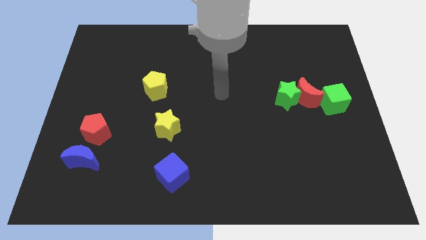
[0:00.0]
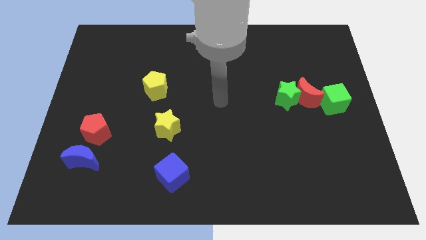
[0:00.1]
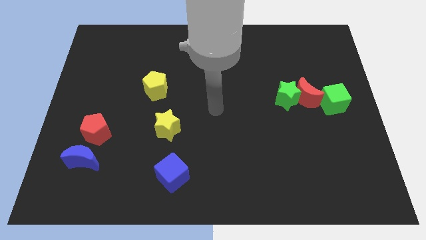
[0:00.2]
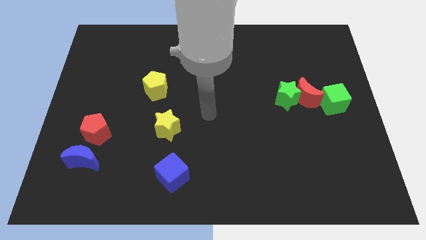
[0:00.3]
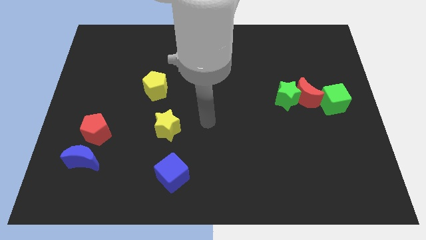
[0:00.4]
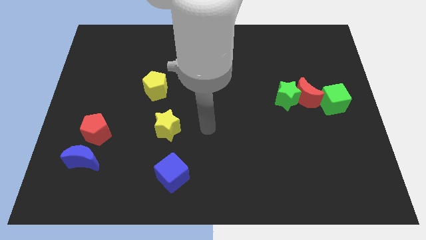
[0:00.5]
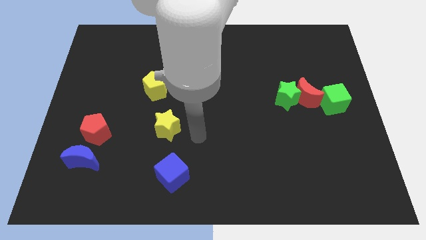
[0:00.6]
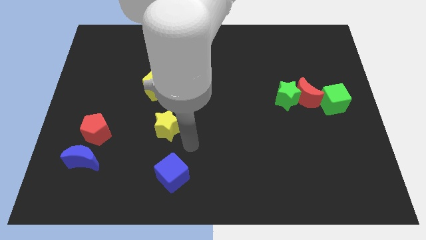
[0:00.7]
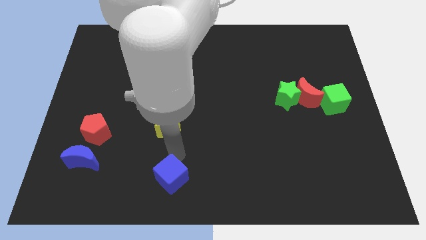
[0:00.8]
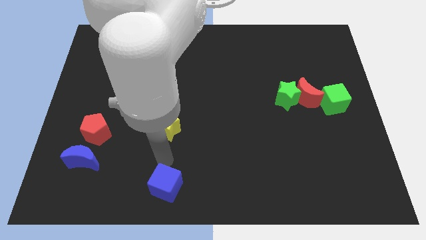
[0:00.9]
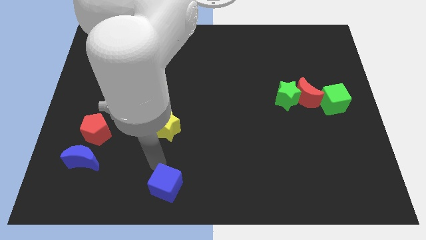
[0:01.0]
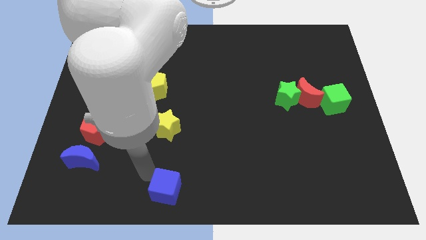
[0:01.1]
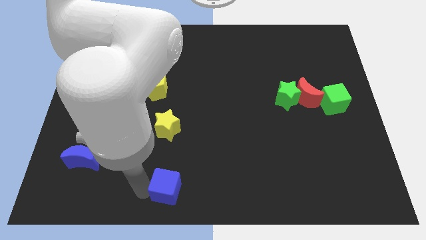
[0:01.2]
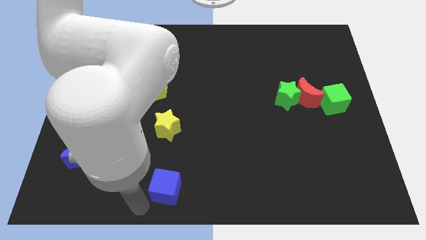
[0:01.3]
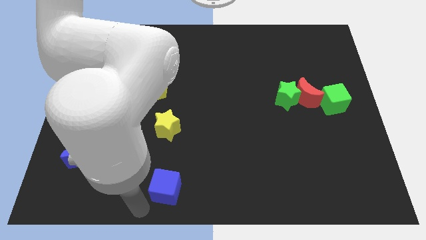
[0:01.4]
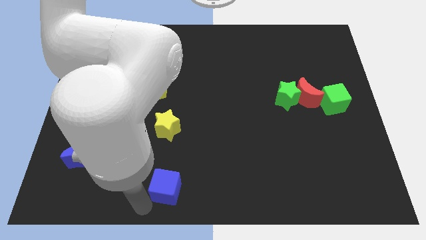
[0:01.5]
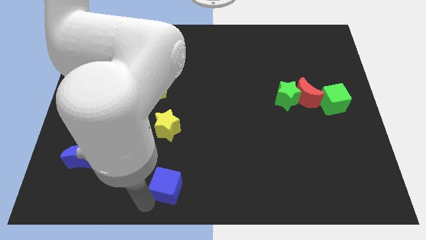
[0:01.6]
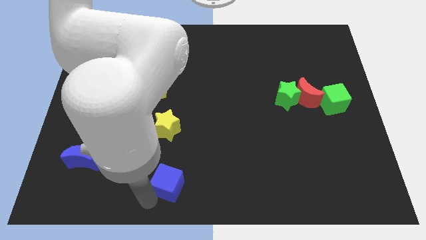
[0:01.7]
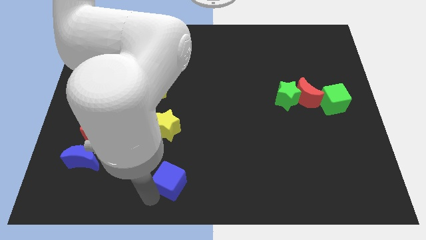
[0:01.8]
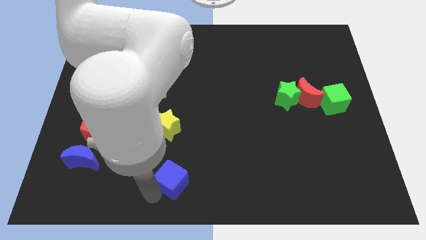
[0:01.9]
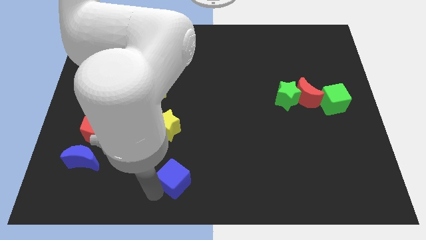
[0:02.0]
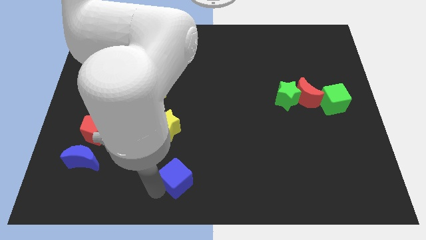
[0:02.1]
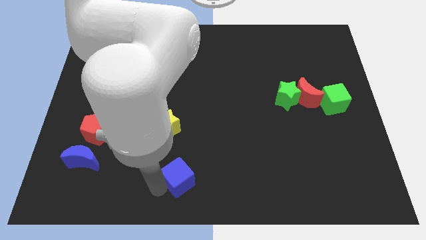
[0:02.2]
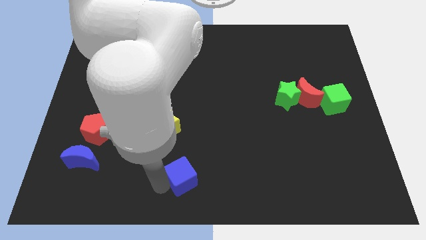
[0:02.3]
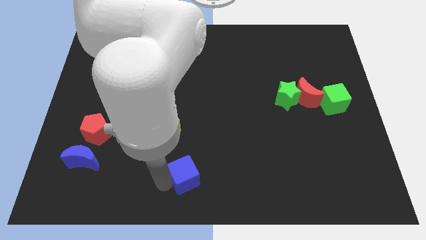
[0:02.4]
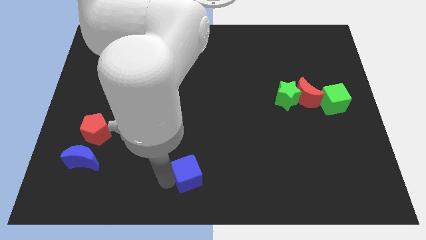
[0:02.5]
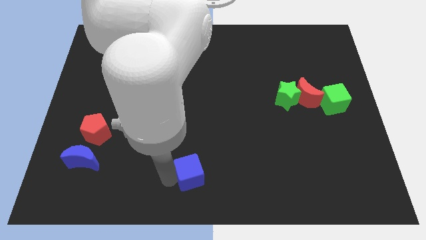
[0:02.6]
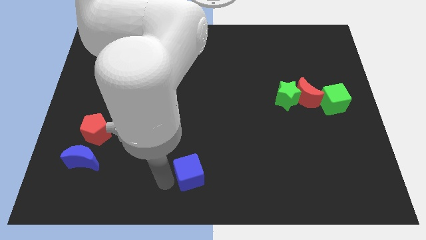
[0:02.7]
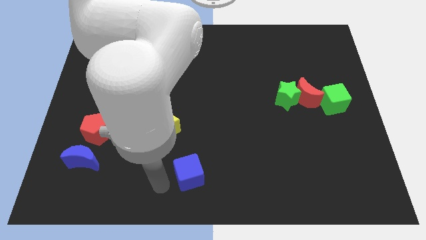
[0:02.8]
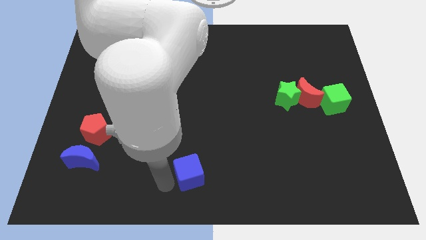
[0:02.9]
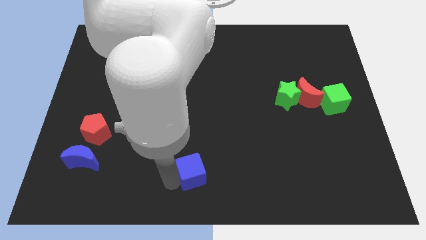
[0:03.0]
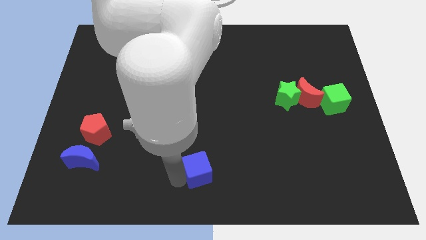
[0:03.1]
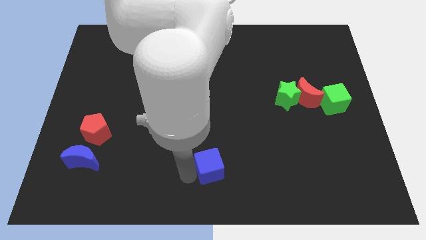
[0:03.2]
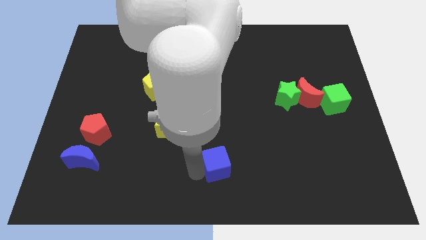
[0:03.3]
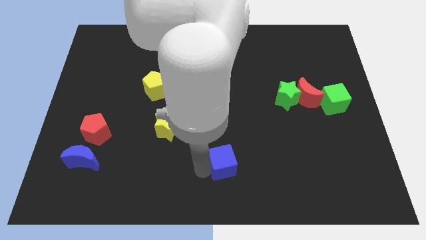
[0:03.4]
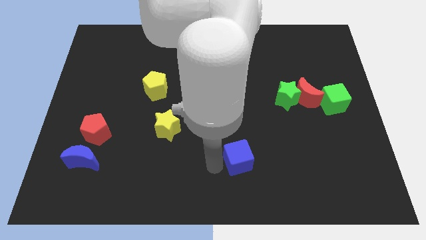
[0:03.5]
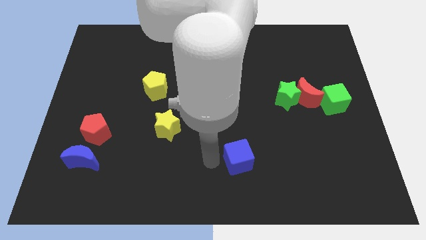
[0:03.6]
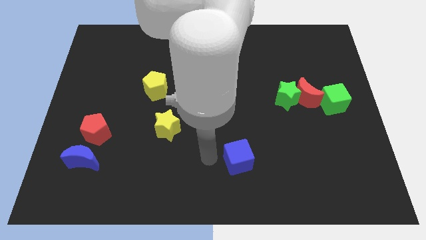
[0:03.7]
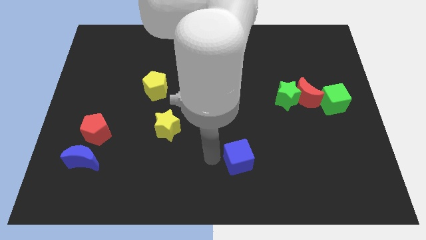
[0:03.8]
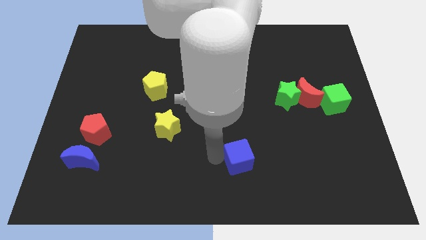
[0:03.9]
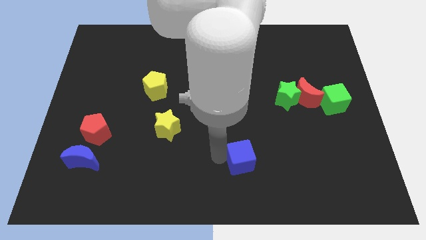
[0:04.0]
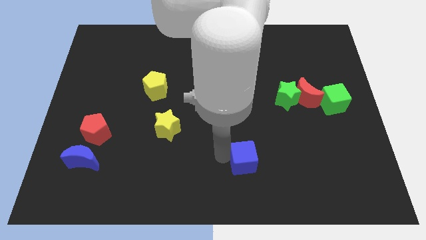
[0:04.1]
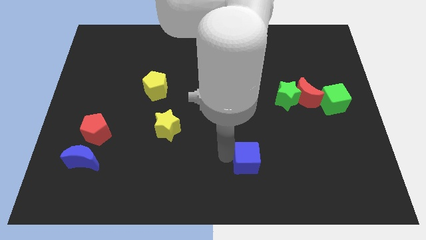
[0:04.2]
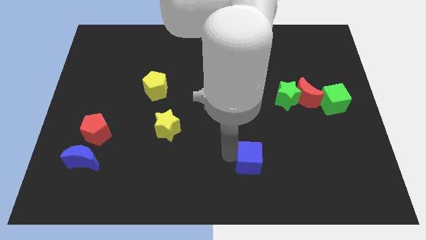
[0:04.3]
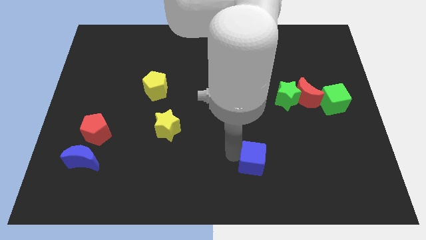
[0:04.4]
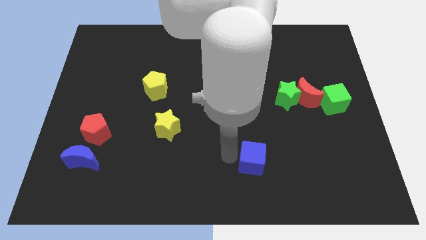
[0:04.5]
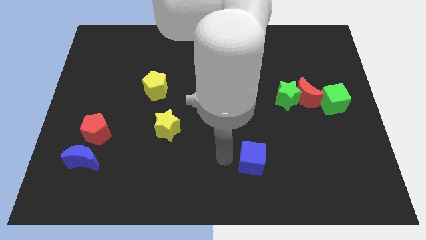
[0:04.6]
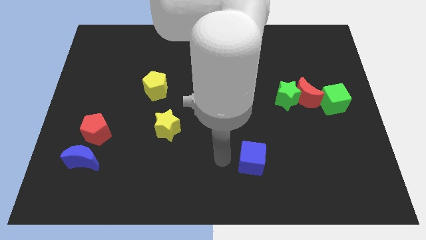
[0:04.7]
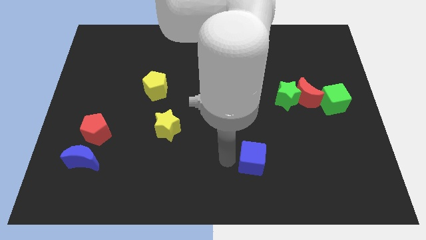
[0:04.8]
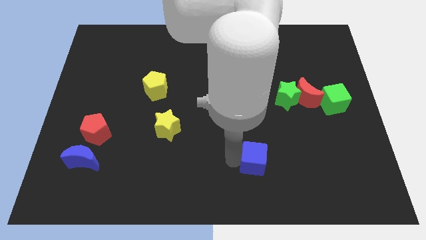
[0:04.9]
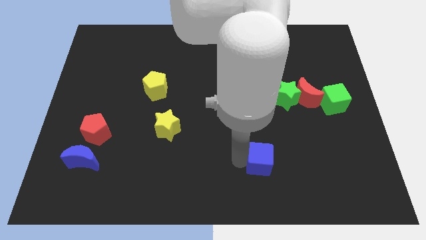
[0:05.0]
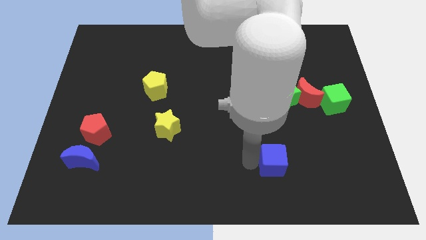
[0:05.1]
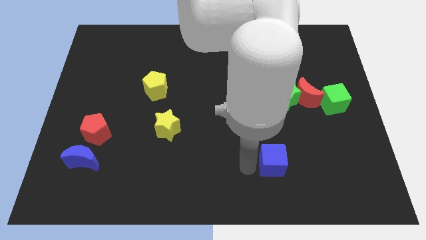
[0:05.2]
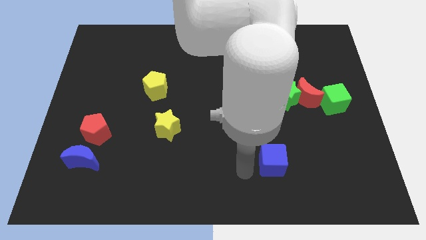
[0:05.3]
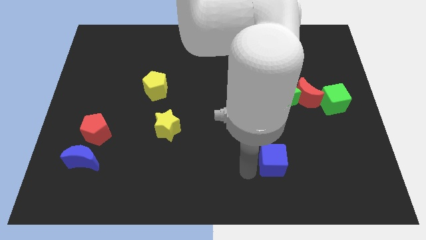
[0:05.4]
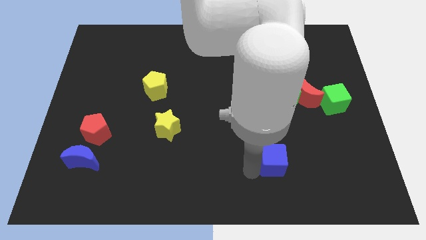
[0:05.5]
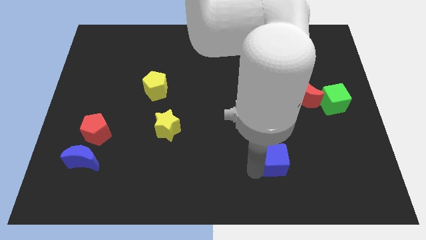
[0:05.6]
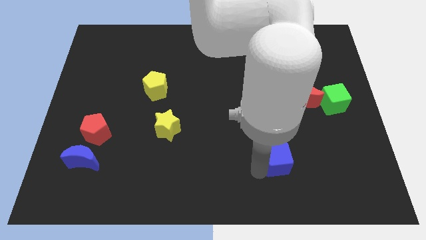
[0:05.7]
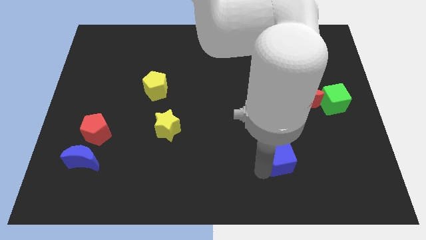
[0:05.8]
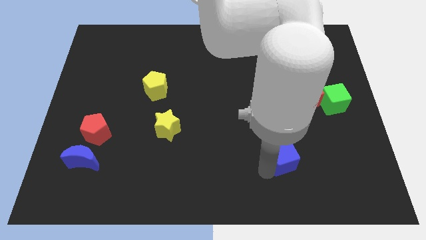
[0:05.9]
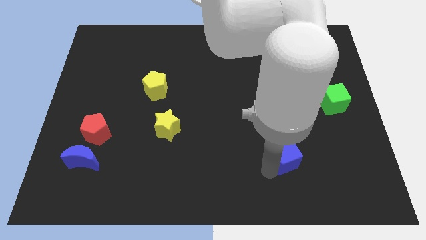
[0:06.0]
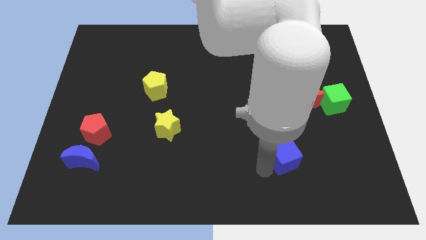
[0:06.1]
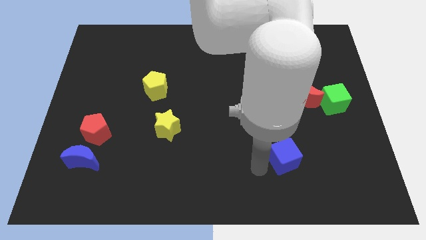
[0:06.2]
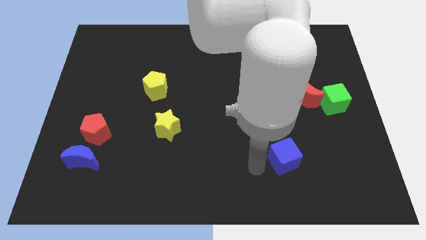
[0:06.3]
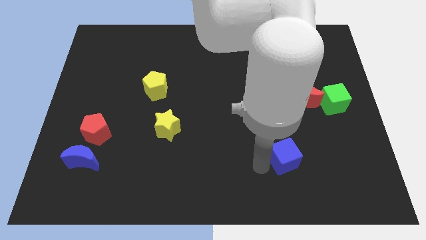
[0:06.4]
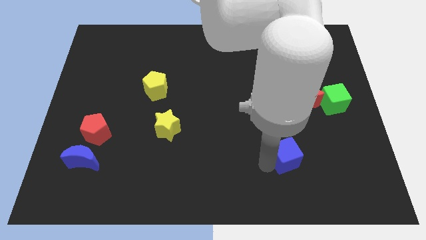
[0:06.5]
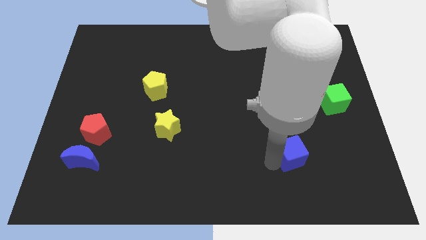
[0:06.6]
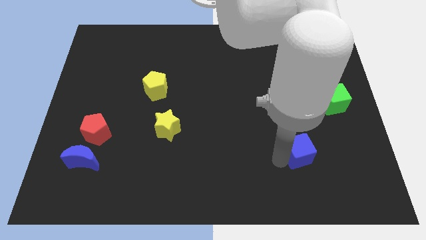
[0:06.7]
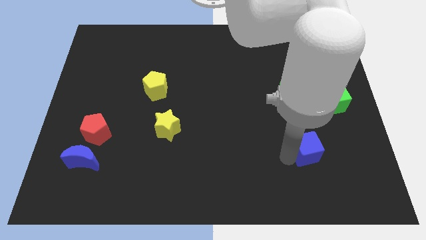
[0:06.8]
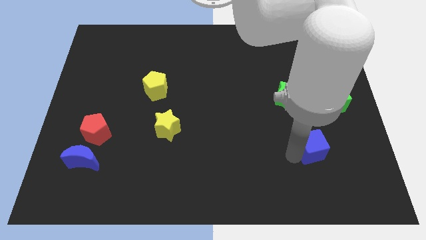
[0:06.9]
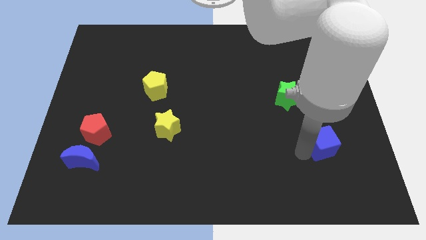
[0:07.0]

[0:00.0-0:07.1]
push the blue cube below the green cube
